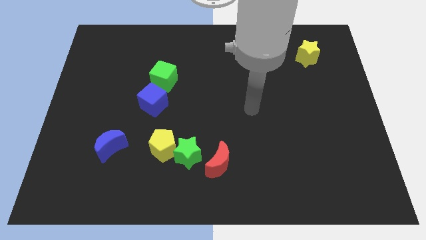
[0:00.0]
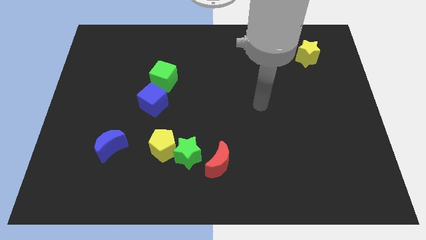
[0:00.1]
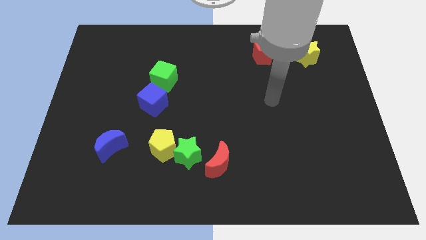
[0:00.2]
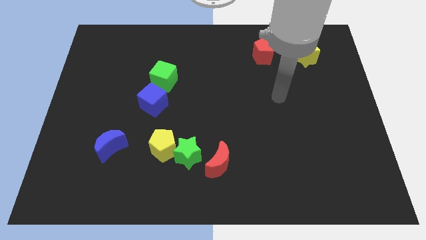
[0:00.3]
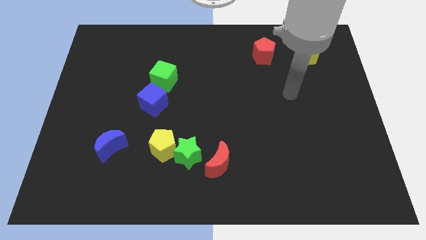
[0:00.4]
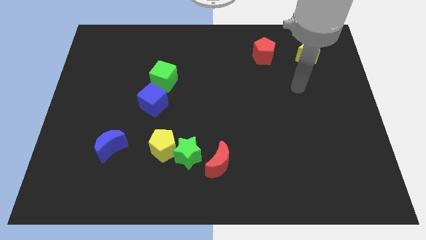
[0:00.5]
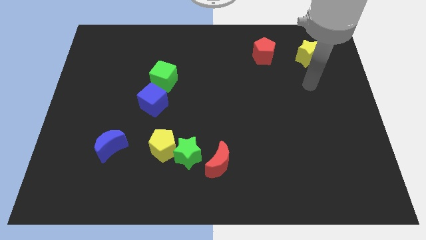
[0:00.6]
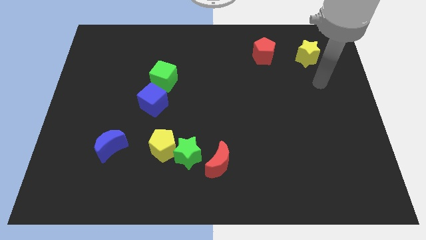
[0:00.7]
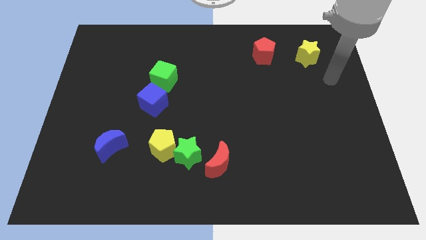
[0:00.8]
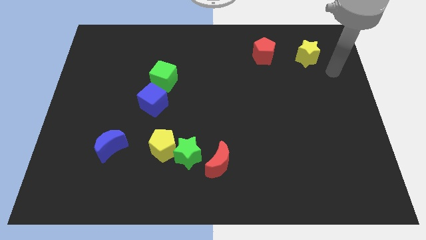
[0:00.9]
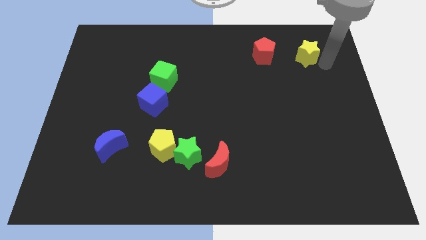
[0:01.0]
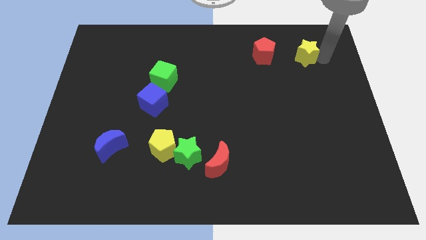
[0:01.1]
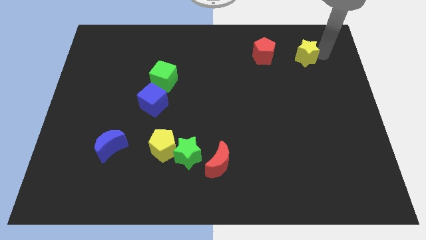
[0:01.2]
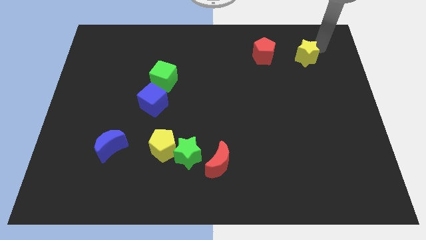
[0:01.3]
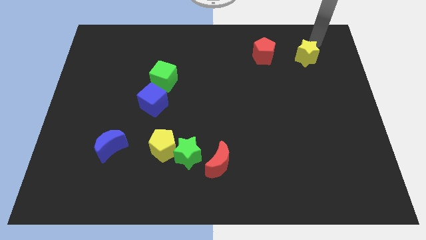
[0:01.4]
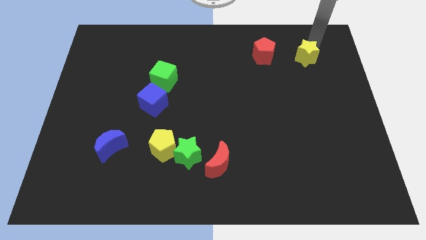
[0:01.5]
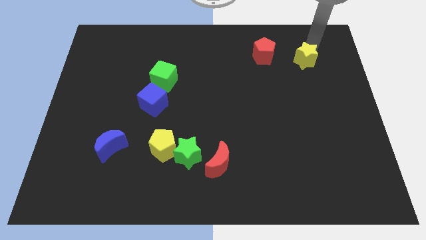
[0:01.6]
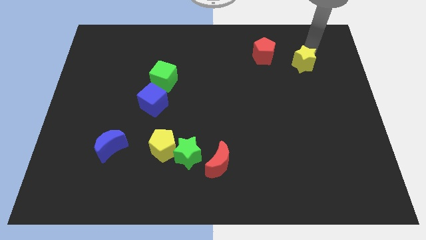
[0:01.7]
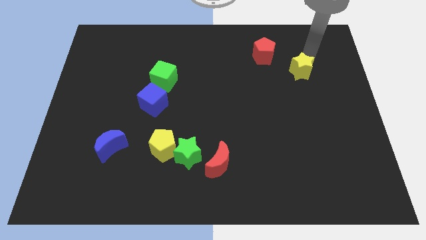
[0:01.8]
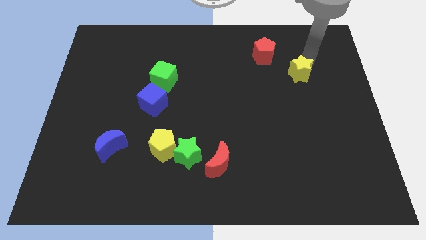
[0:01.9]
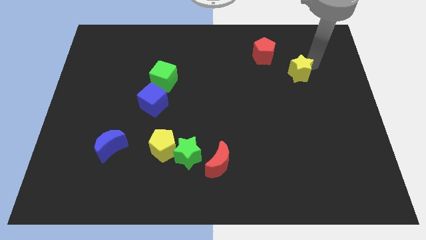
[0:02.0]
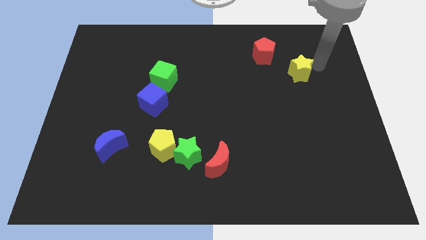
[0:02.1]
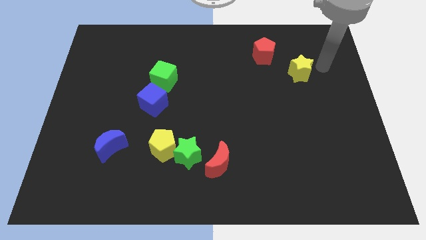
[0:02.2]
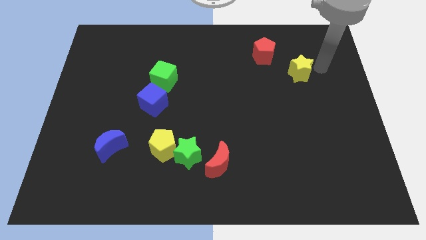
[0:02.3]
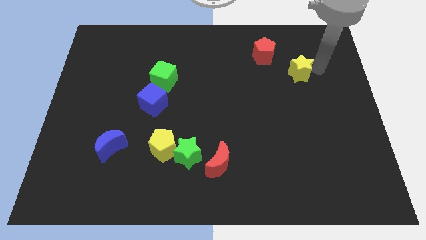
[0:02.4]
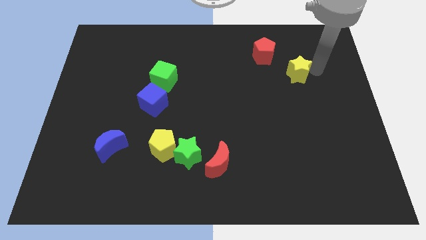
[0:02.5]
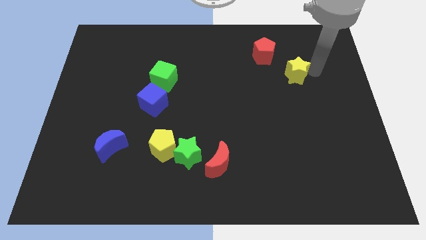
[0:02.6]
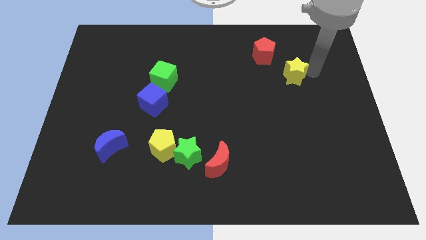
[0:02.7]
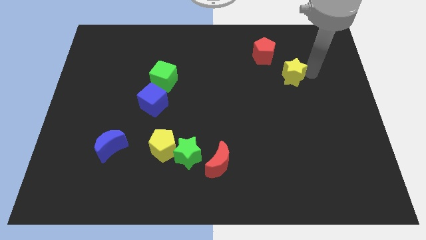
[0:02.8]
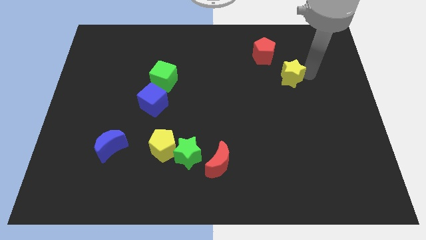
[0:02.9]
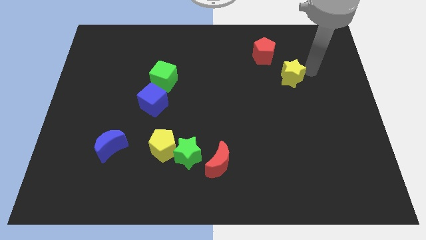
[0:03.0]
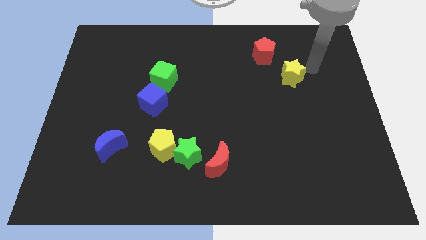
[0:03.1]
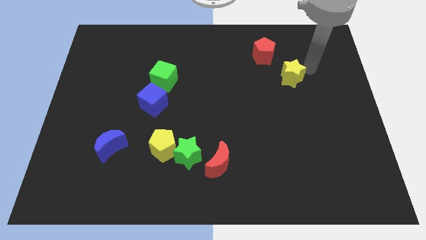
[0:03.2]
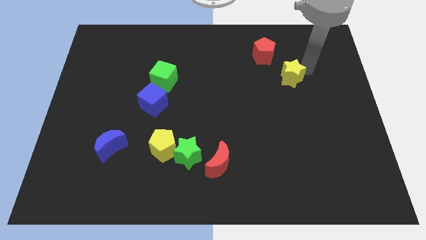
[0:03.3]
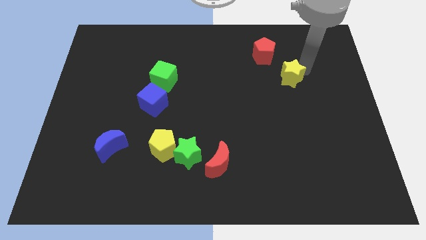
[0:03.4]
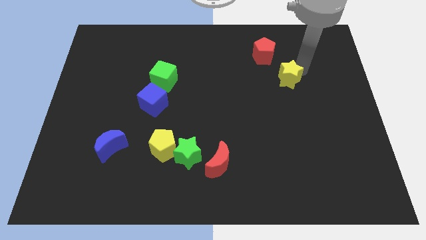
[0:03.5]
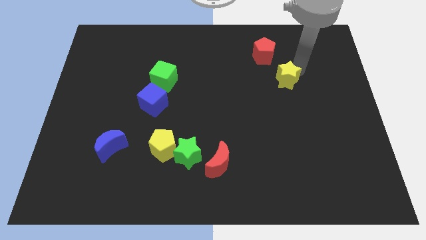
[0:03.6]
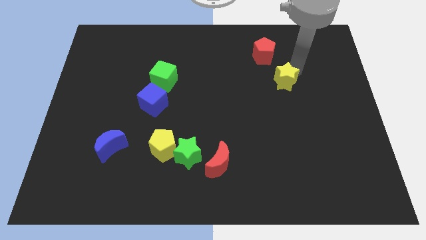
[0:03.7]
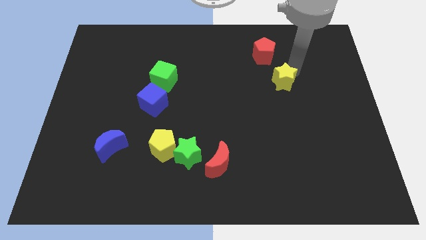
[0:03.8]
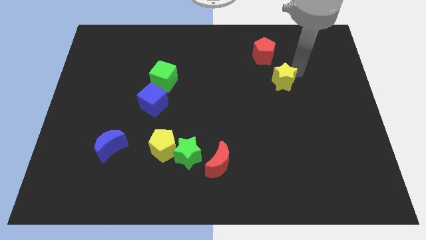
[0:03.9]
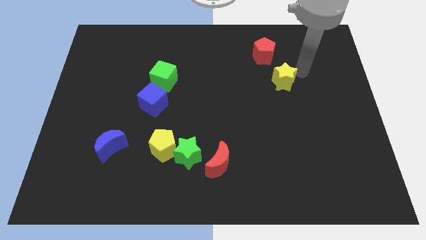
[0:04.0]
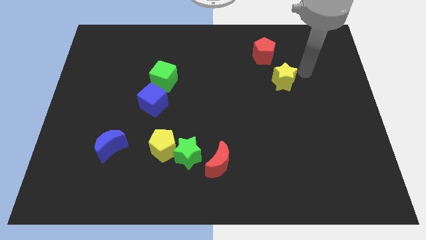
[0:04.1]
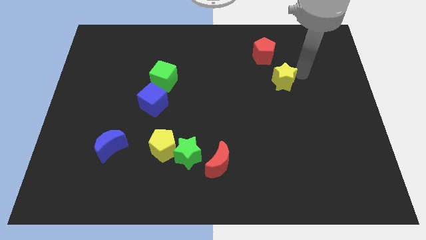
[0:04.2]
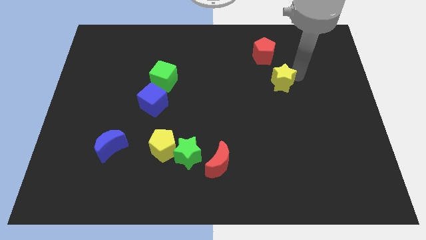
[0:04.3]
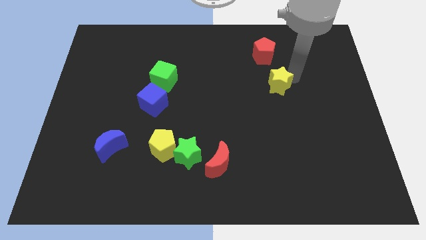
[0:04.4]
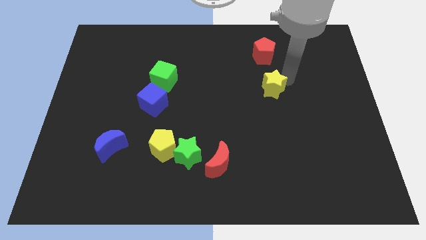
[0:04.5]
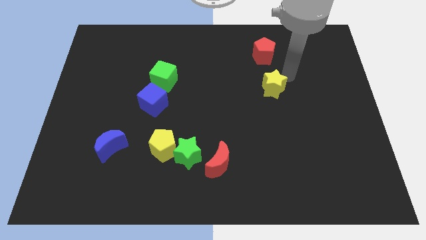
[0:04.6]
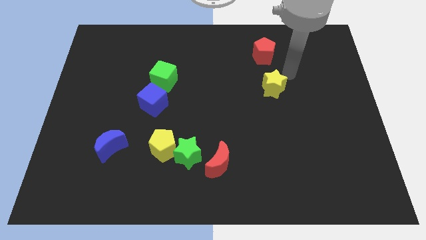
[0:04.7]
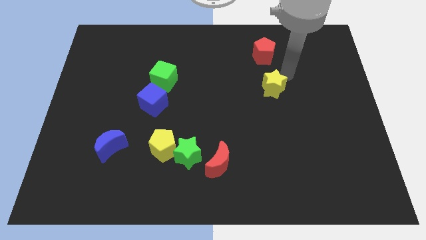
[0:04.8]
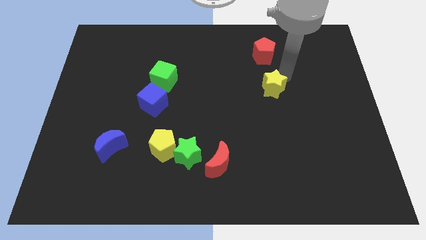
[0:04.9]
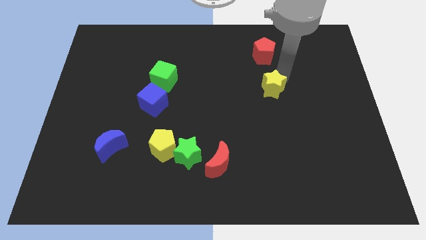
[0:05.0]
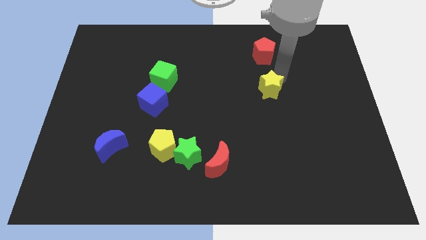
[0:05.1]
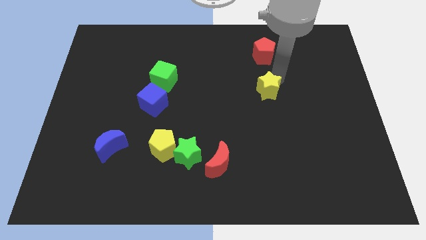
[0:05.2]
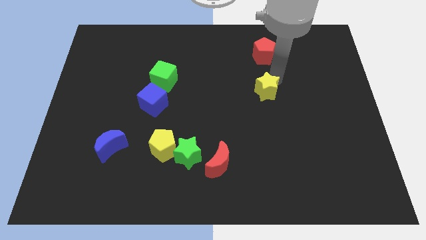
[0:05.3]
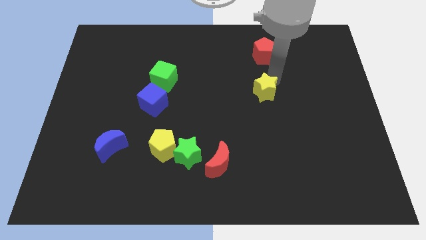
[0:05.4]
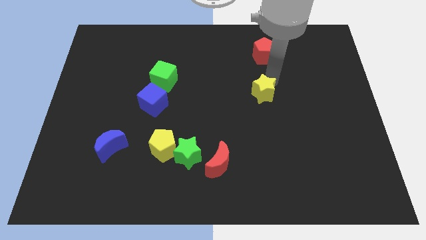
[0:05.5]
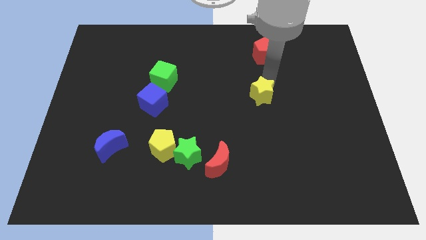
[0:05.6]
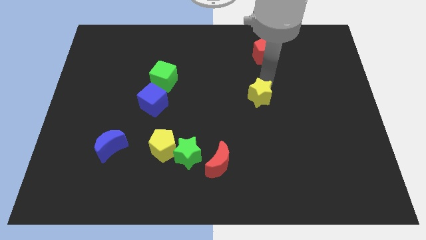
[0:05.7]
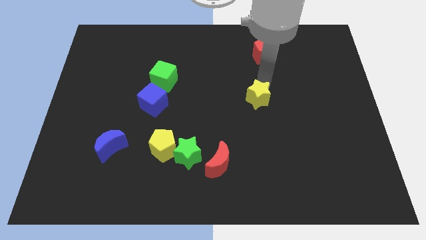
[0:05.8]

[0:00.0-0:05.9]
move the yellow star diagonally downwards and to the left

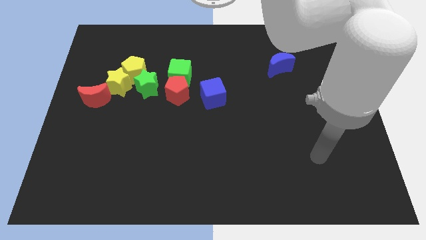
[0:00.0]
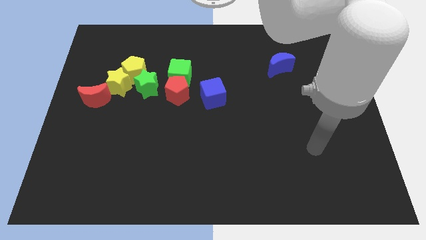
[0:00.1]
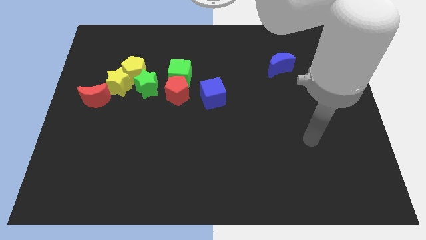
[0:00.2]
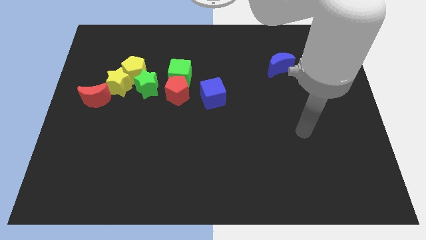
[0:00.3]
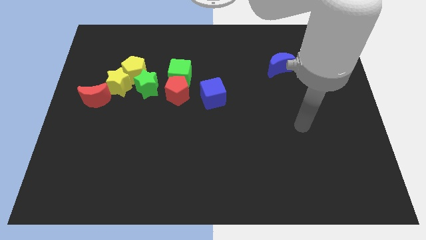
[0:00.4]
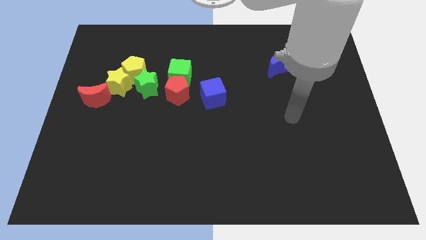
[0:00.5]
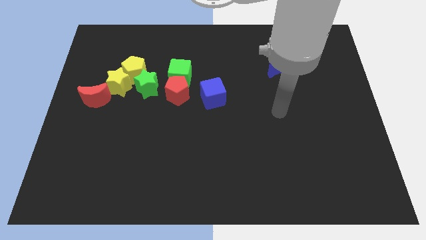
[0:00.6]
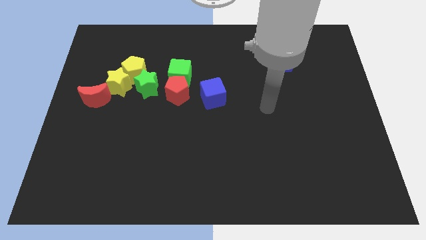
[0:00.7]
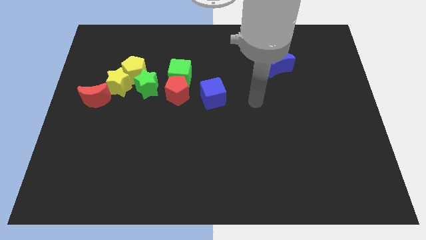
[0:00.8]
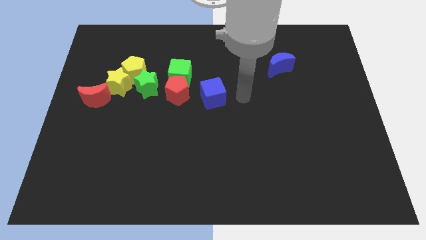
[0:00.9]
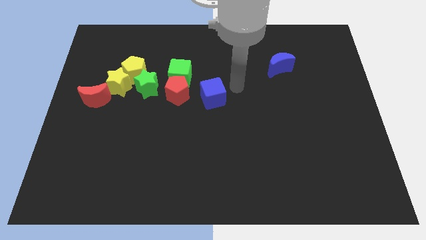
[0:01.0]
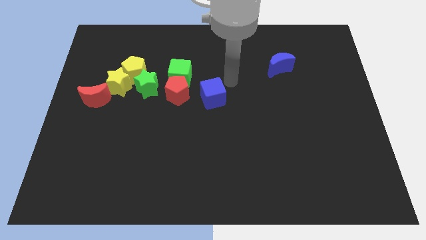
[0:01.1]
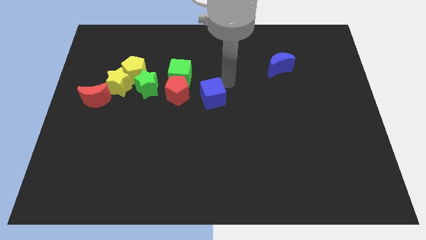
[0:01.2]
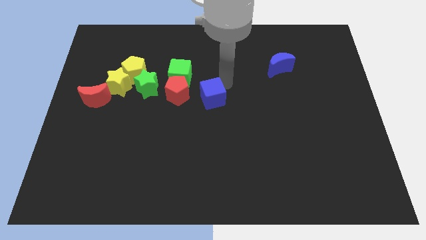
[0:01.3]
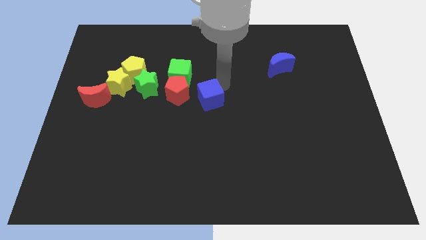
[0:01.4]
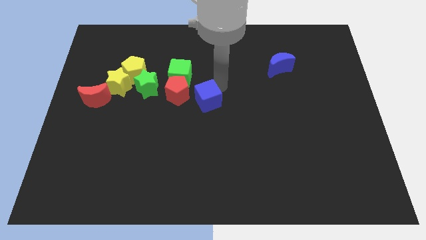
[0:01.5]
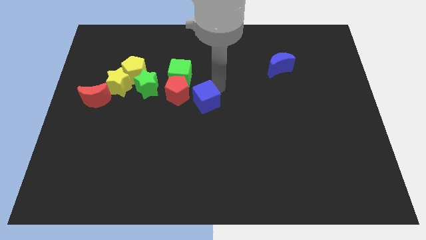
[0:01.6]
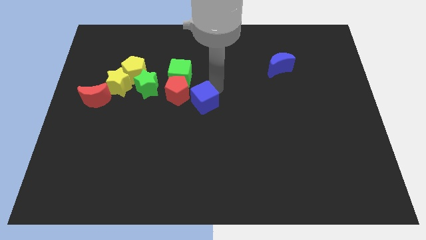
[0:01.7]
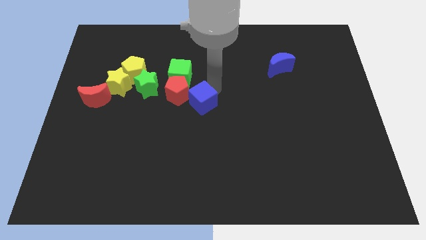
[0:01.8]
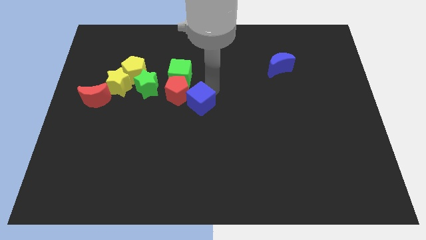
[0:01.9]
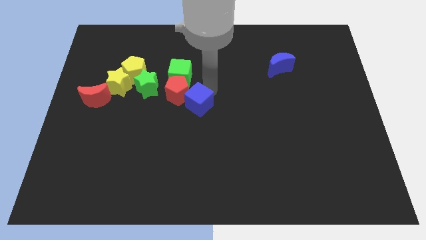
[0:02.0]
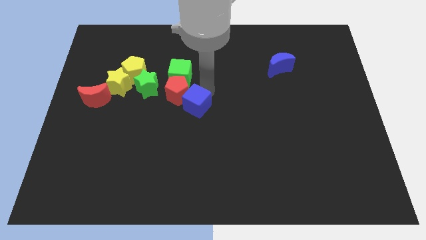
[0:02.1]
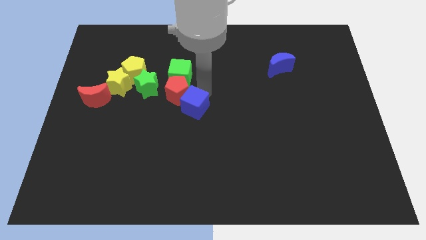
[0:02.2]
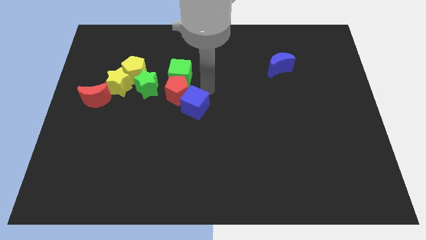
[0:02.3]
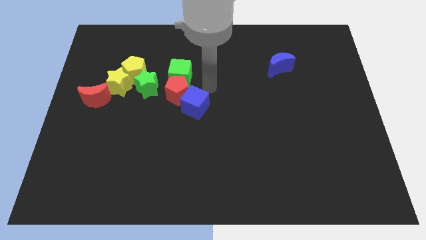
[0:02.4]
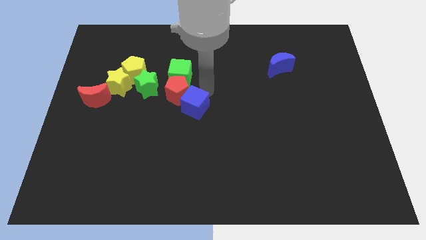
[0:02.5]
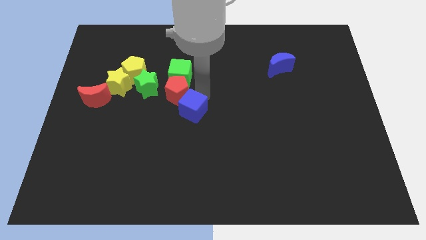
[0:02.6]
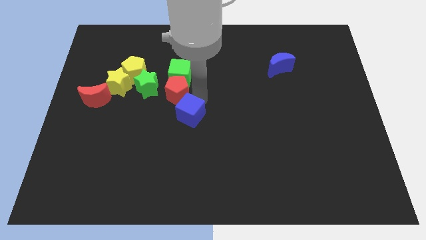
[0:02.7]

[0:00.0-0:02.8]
slightly push the blue cube downwards and then left
